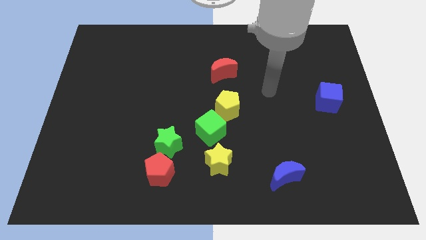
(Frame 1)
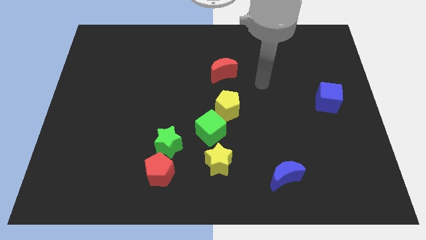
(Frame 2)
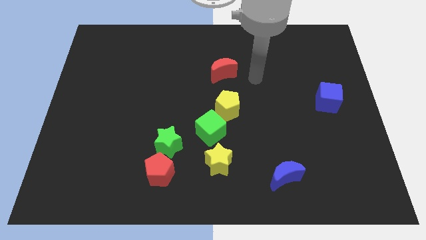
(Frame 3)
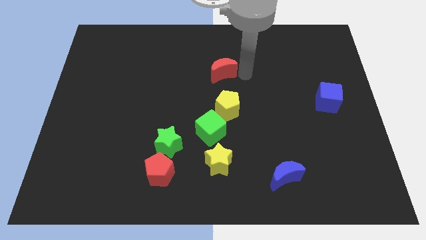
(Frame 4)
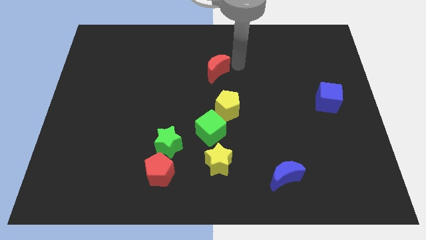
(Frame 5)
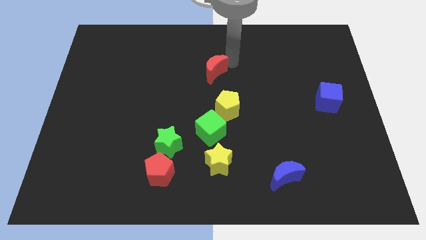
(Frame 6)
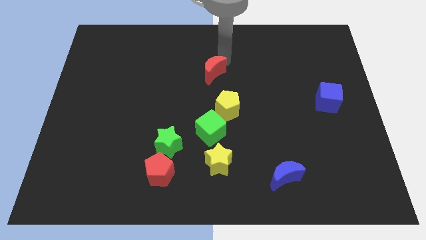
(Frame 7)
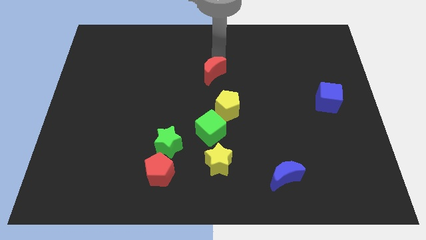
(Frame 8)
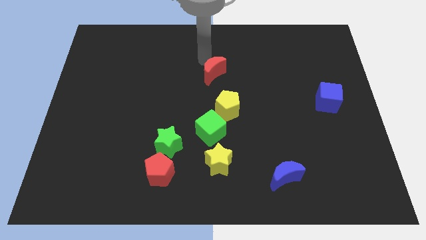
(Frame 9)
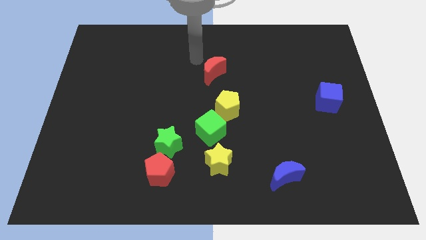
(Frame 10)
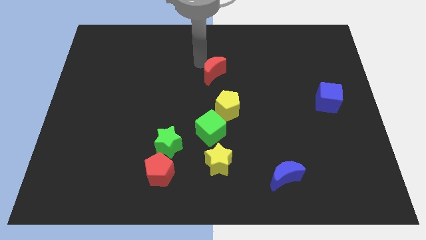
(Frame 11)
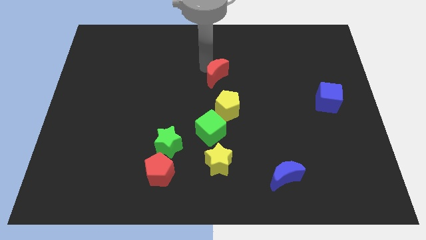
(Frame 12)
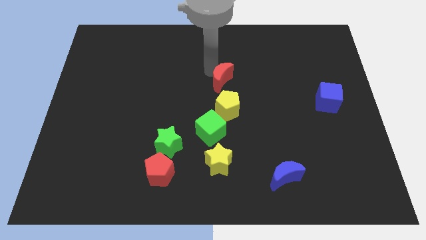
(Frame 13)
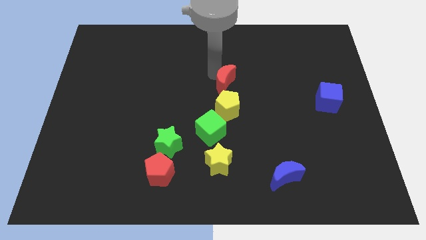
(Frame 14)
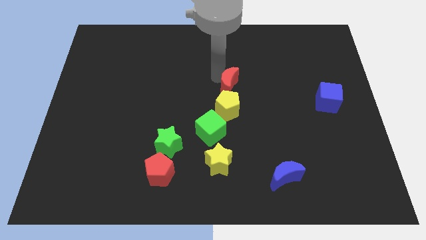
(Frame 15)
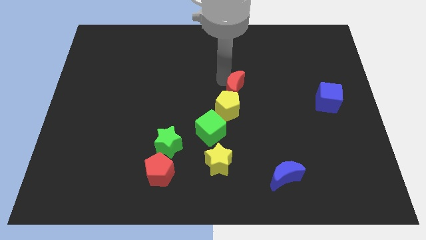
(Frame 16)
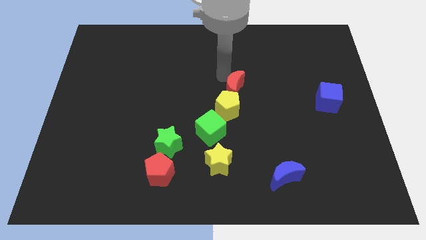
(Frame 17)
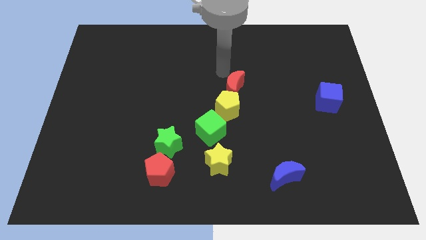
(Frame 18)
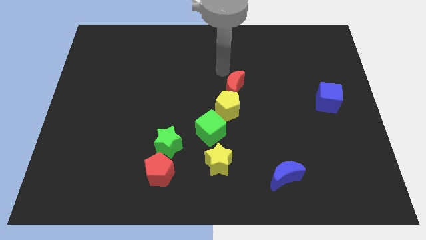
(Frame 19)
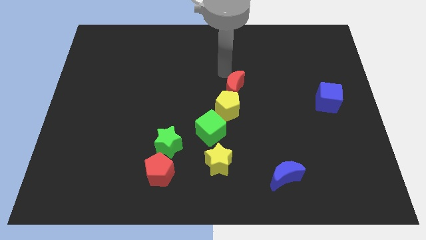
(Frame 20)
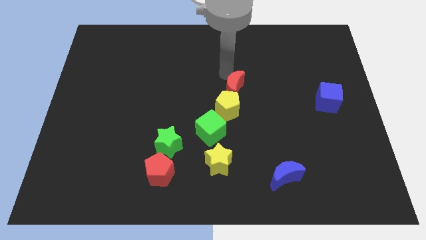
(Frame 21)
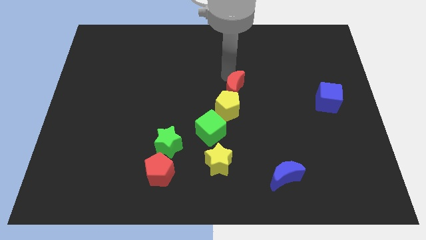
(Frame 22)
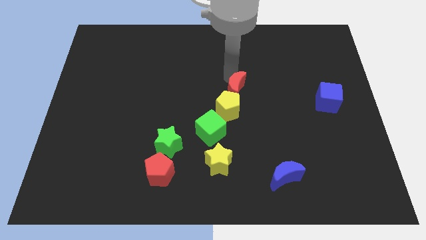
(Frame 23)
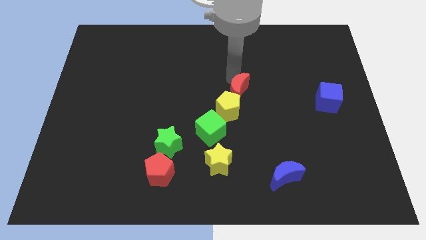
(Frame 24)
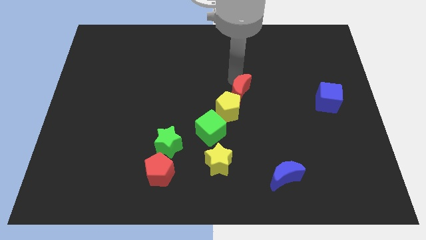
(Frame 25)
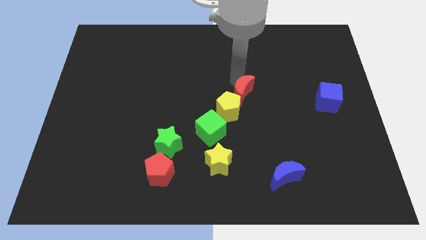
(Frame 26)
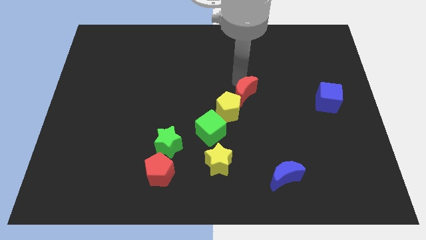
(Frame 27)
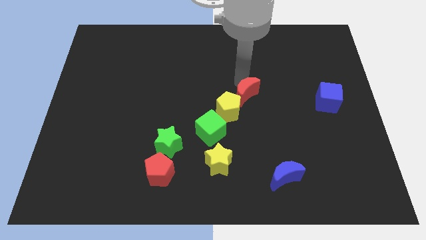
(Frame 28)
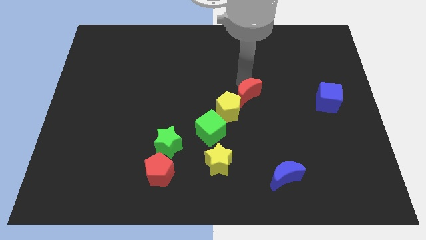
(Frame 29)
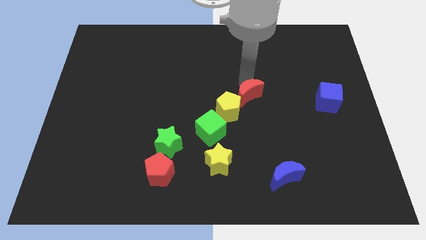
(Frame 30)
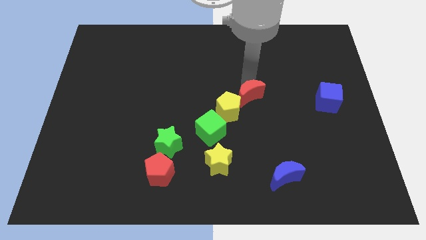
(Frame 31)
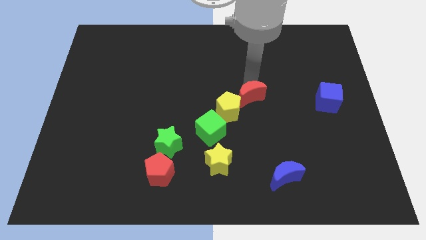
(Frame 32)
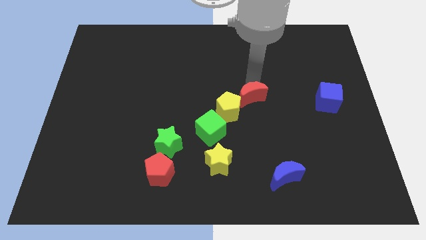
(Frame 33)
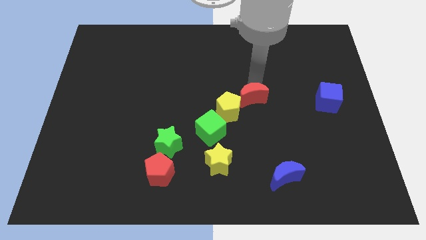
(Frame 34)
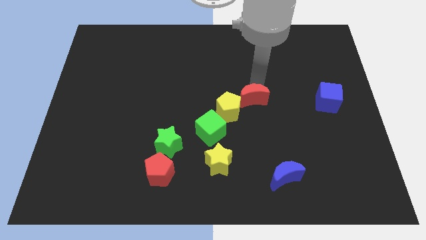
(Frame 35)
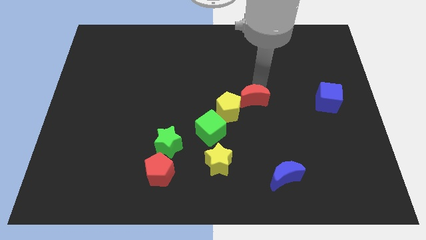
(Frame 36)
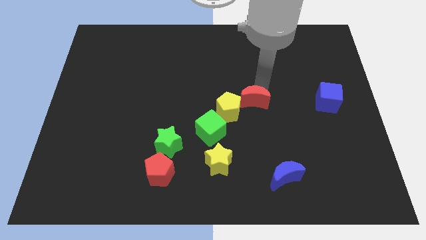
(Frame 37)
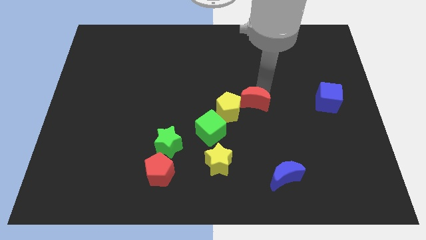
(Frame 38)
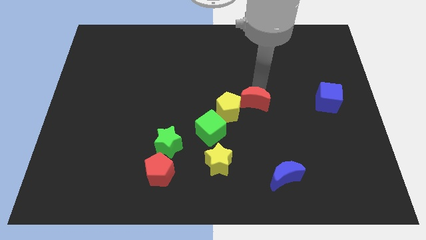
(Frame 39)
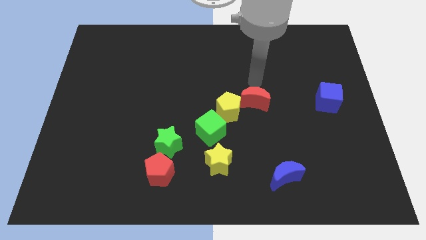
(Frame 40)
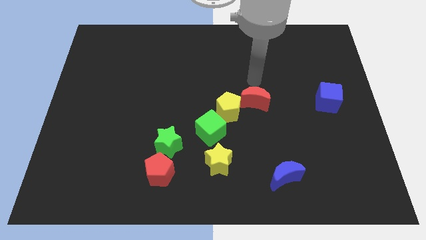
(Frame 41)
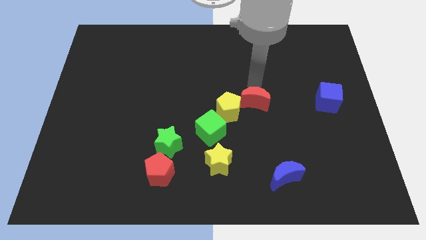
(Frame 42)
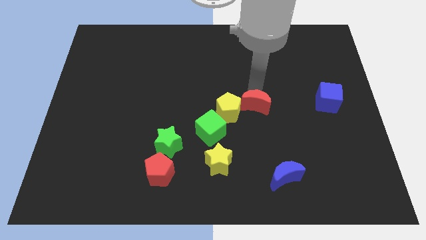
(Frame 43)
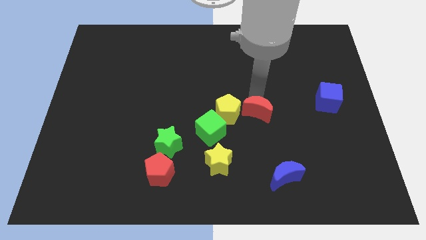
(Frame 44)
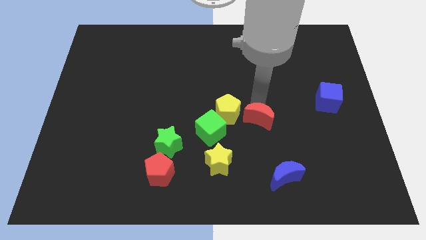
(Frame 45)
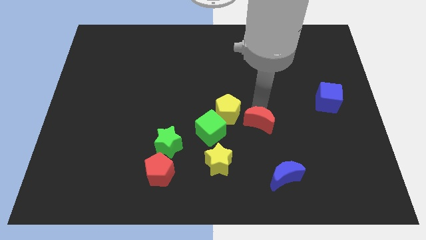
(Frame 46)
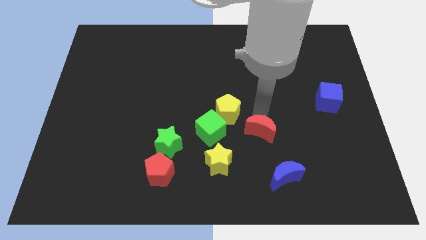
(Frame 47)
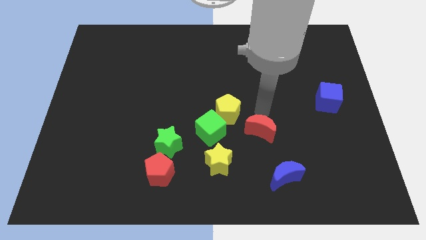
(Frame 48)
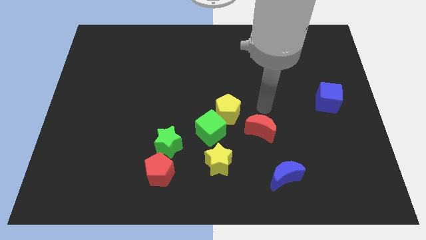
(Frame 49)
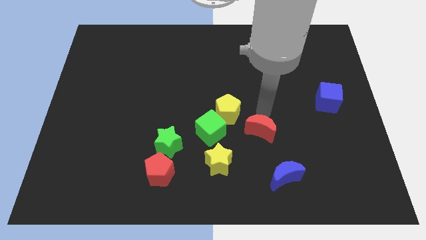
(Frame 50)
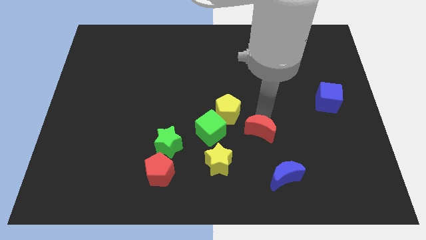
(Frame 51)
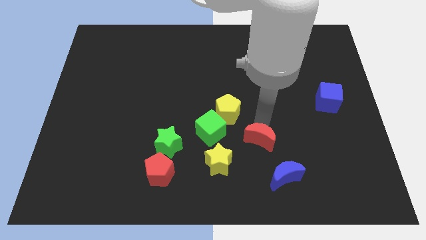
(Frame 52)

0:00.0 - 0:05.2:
push the red moon to the top left side of the blue moon
